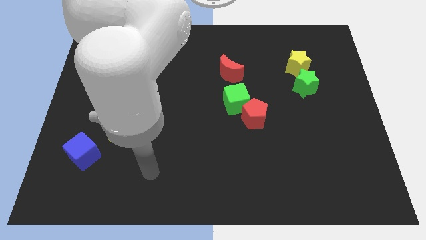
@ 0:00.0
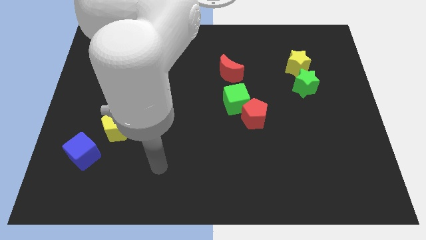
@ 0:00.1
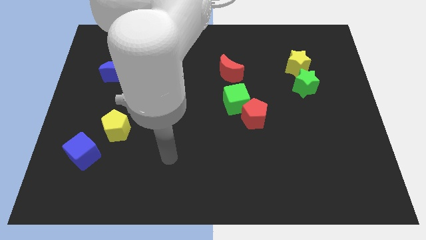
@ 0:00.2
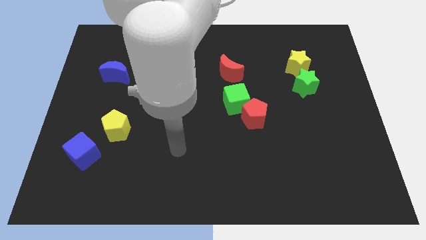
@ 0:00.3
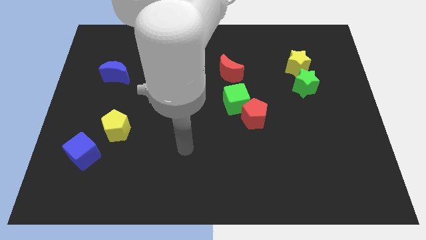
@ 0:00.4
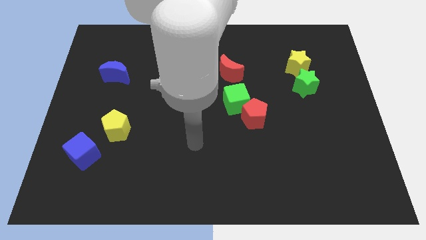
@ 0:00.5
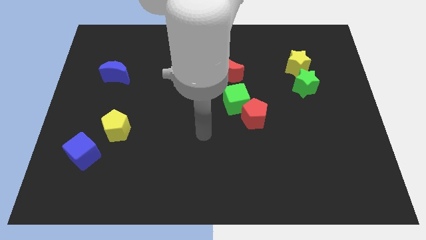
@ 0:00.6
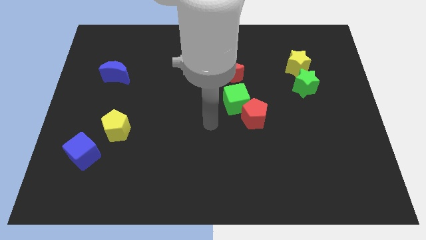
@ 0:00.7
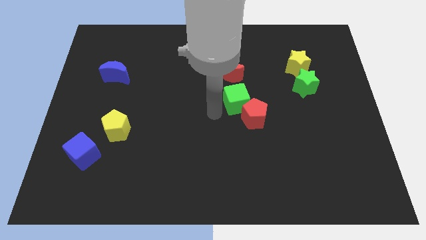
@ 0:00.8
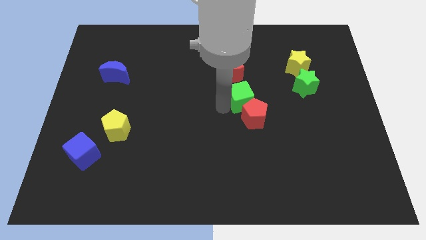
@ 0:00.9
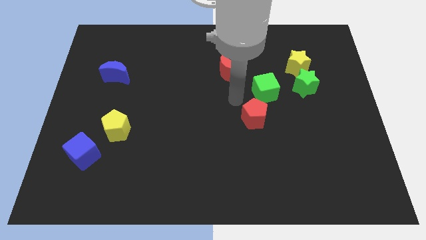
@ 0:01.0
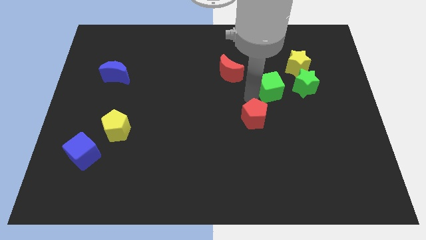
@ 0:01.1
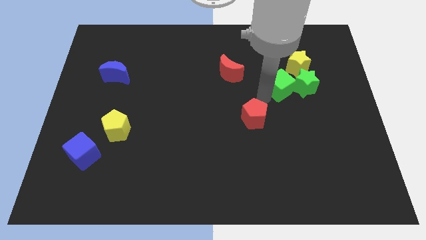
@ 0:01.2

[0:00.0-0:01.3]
separate the red pentagon from the green cube

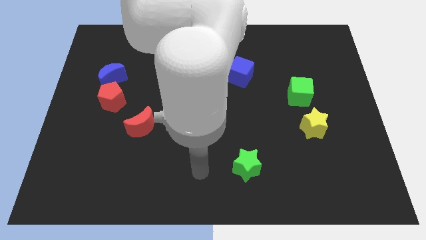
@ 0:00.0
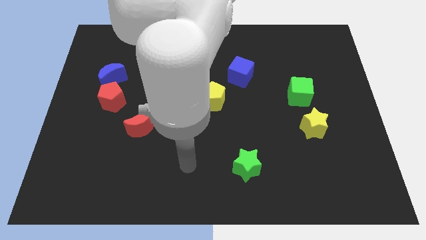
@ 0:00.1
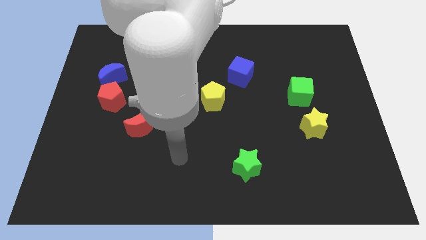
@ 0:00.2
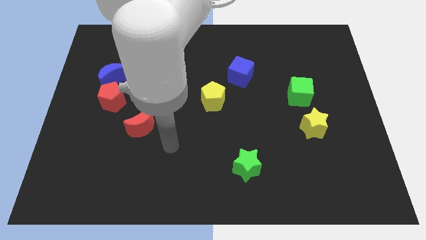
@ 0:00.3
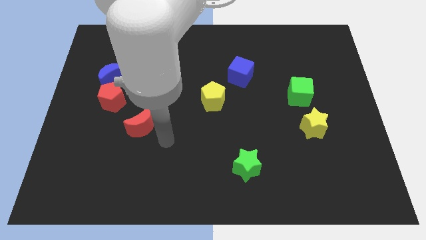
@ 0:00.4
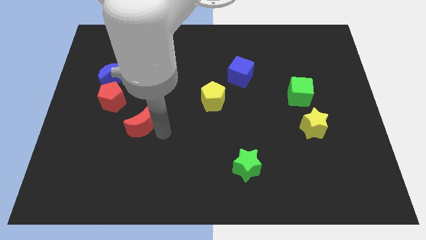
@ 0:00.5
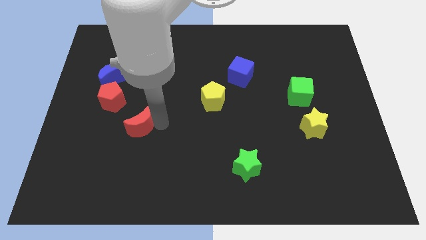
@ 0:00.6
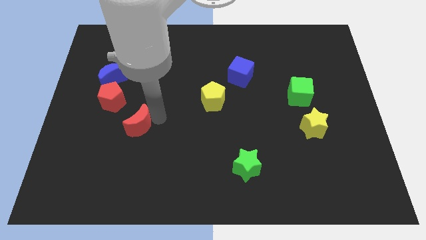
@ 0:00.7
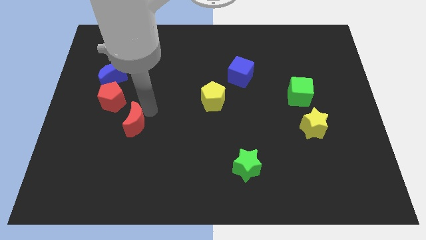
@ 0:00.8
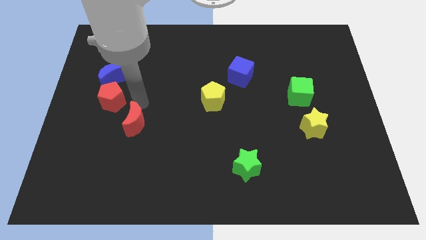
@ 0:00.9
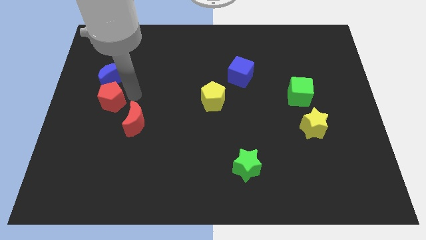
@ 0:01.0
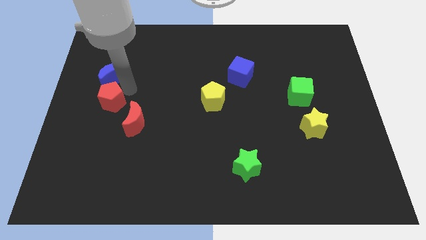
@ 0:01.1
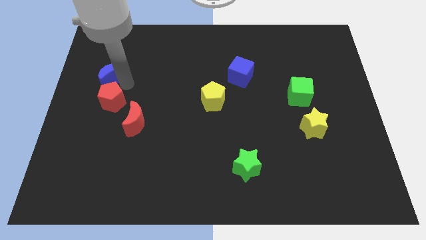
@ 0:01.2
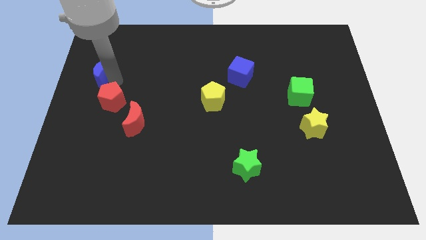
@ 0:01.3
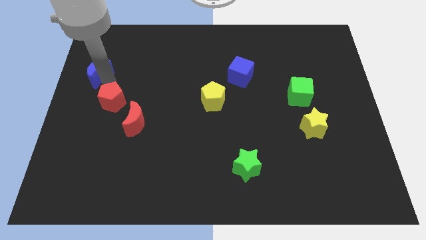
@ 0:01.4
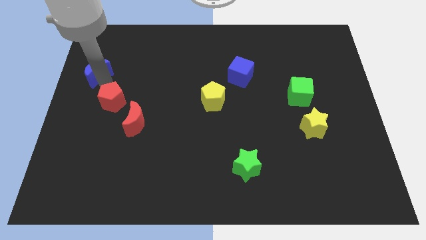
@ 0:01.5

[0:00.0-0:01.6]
separate the red pentagon from the blue moon

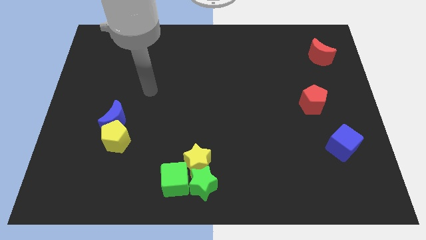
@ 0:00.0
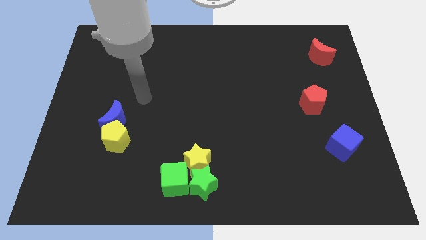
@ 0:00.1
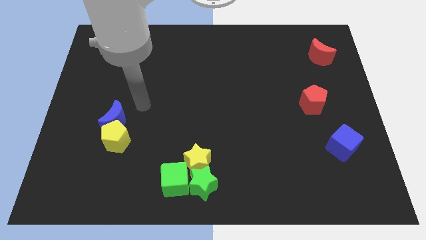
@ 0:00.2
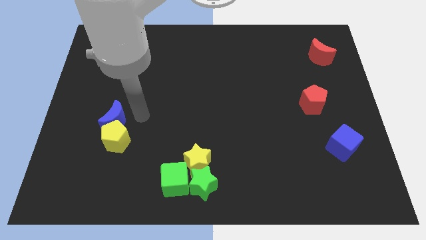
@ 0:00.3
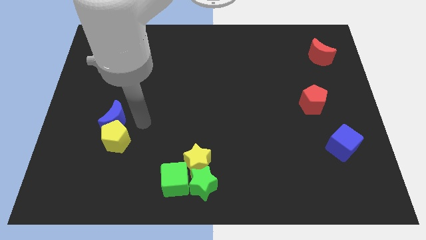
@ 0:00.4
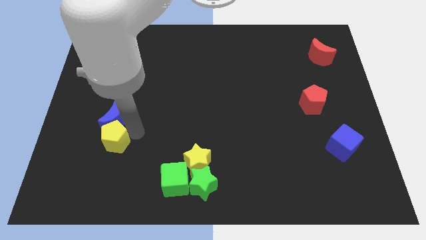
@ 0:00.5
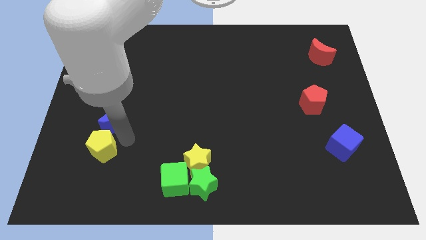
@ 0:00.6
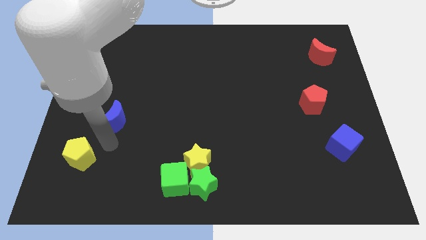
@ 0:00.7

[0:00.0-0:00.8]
separate the blue moon from the yellow pentagon

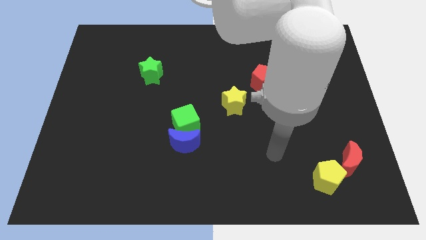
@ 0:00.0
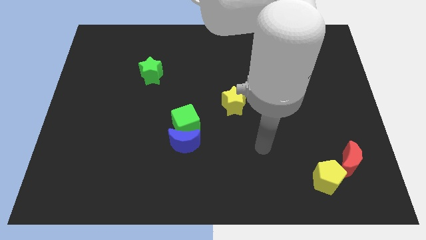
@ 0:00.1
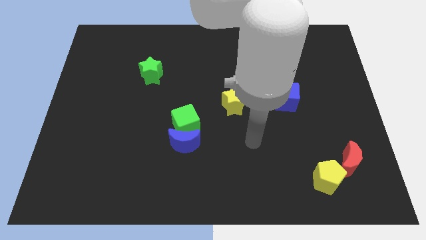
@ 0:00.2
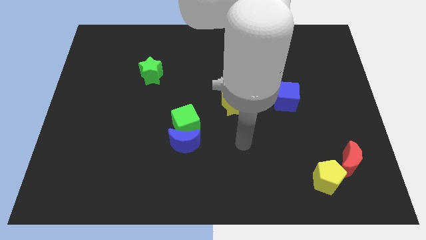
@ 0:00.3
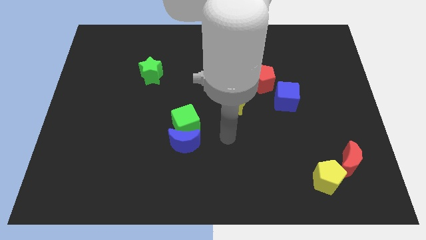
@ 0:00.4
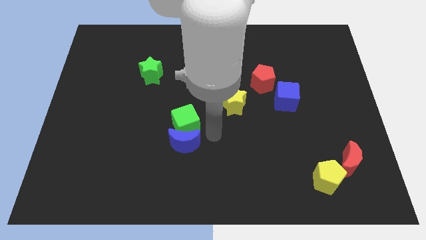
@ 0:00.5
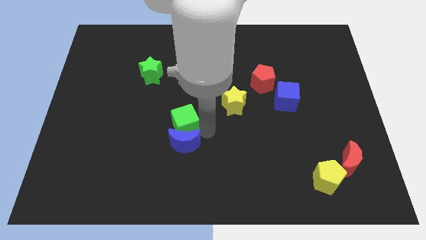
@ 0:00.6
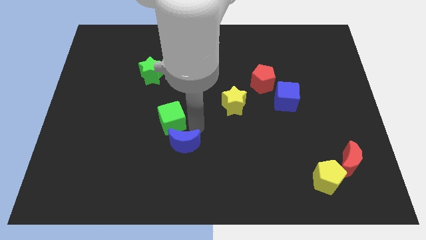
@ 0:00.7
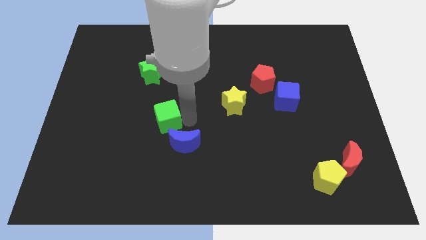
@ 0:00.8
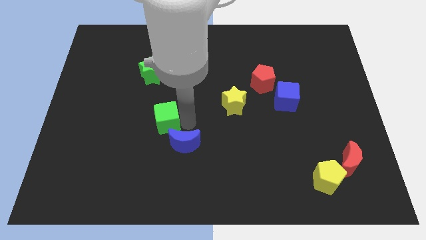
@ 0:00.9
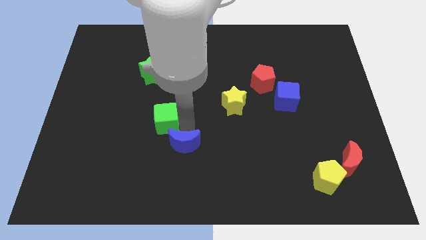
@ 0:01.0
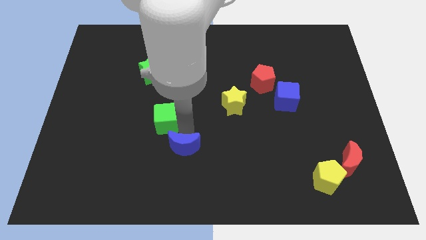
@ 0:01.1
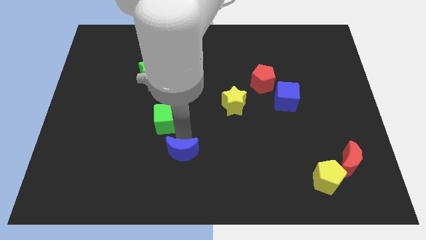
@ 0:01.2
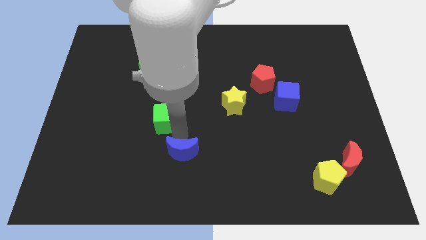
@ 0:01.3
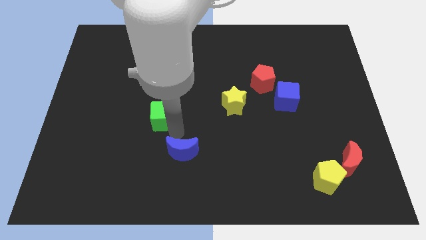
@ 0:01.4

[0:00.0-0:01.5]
separate the blue moon from the green cube

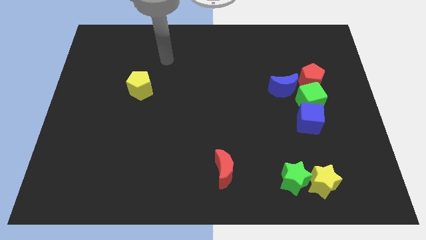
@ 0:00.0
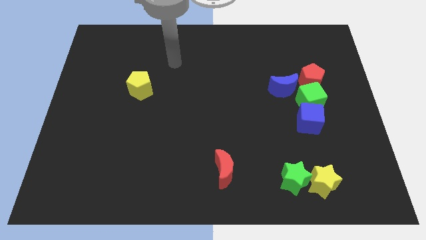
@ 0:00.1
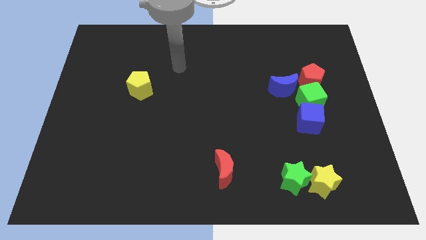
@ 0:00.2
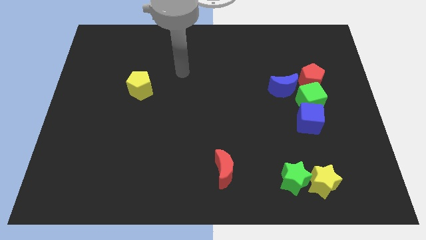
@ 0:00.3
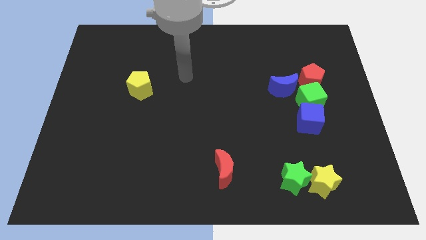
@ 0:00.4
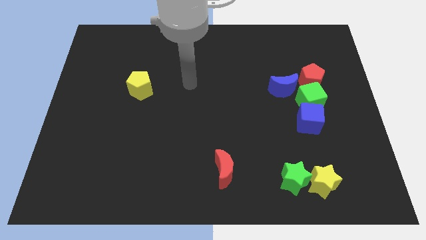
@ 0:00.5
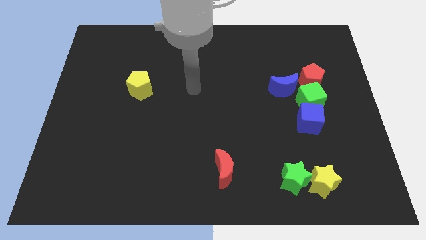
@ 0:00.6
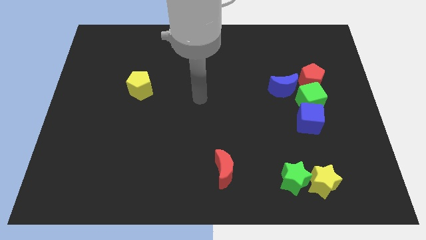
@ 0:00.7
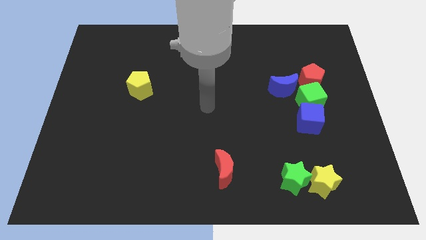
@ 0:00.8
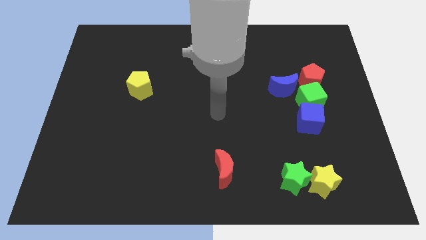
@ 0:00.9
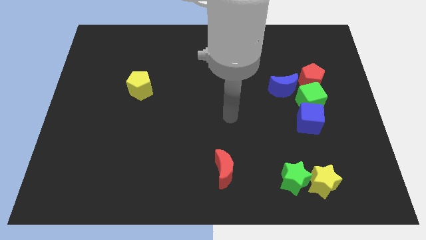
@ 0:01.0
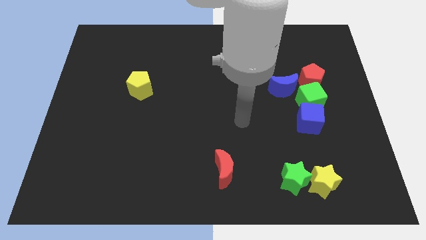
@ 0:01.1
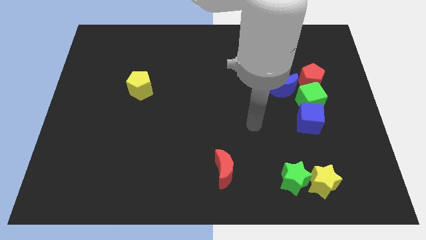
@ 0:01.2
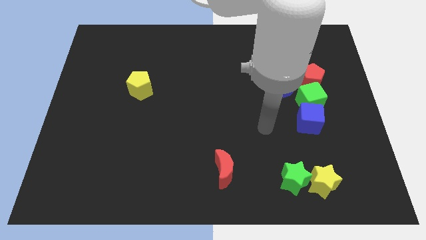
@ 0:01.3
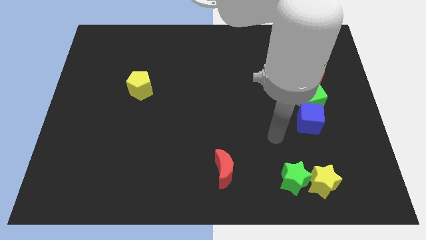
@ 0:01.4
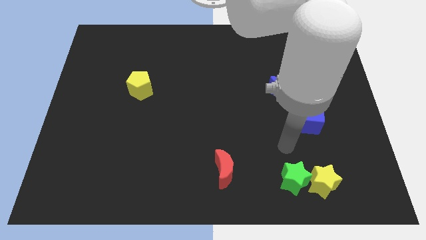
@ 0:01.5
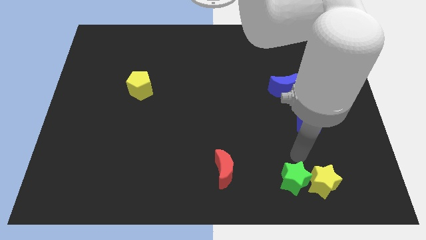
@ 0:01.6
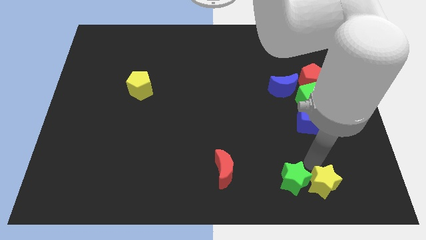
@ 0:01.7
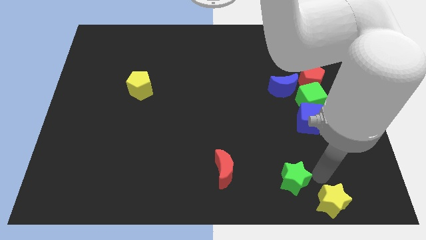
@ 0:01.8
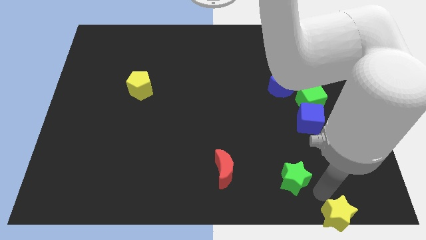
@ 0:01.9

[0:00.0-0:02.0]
separate the green star from the yellow star

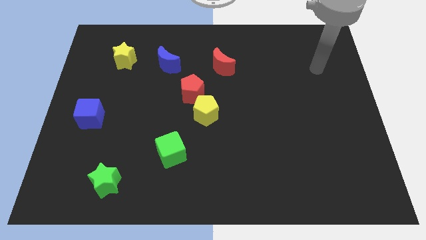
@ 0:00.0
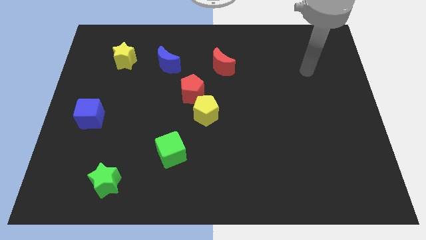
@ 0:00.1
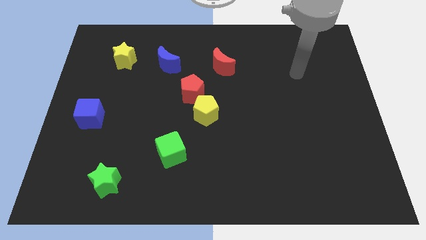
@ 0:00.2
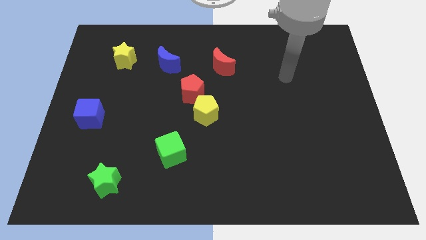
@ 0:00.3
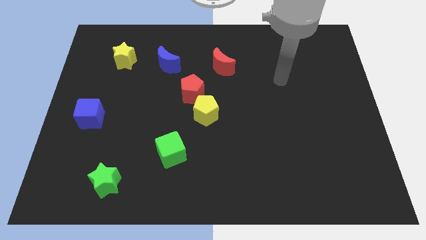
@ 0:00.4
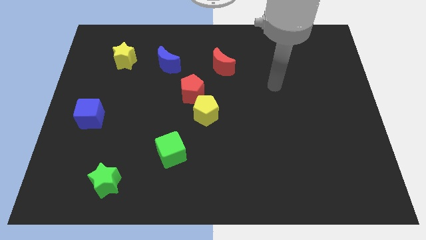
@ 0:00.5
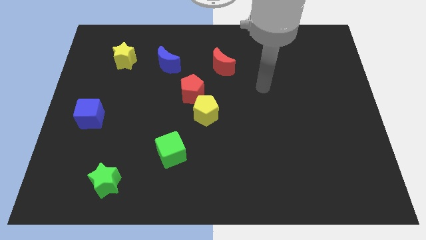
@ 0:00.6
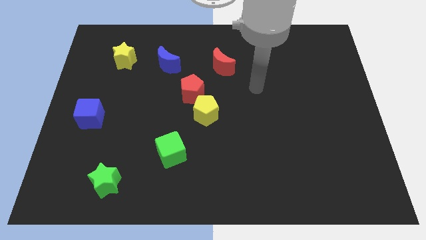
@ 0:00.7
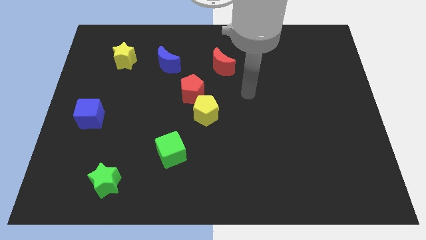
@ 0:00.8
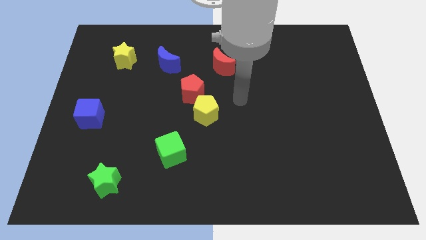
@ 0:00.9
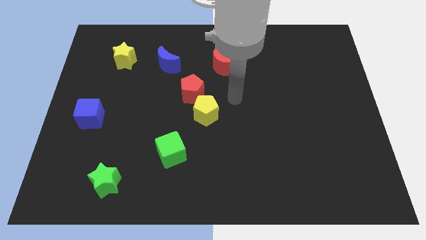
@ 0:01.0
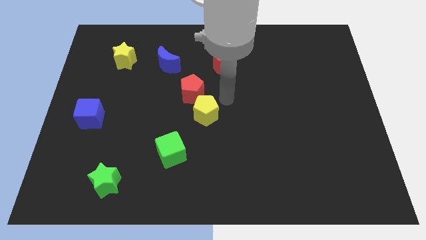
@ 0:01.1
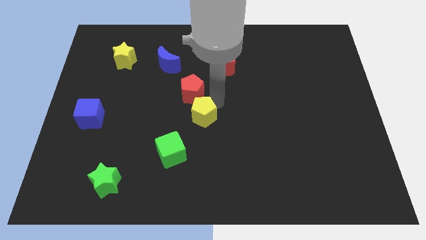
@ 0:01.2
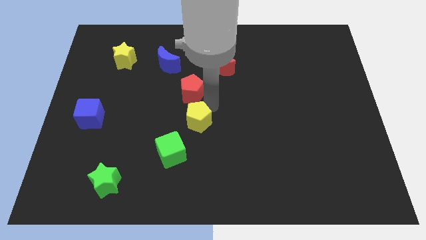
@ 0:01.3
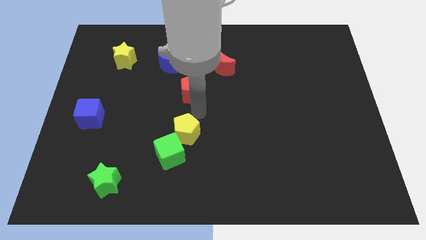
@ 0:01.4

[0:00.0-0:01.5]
move the red pentagon away from the yellow pentagon

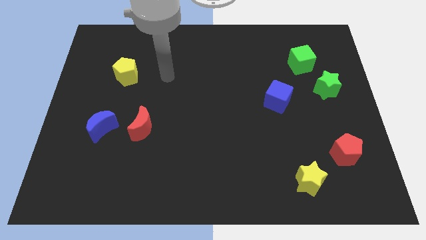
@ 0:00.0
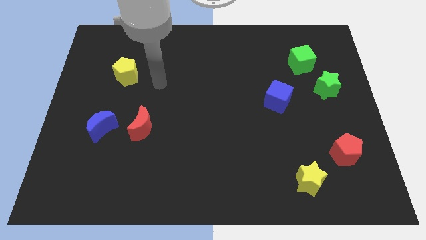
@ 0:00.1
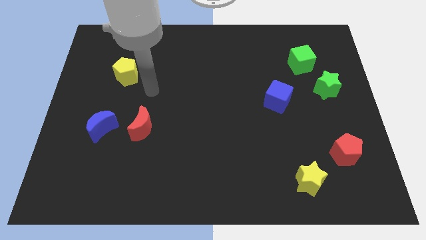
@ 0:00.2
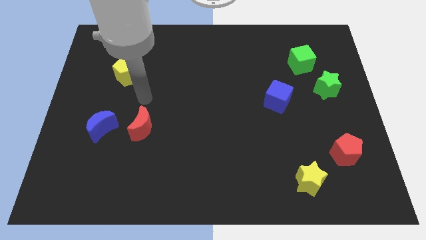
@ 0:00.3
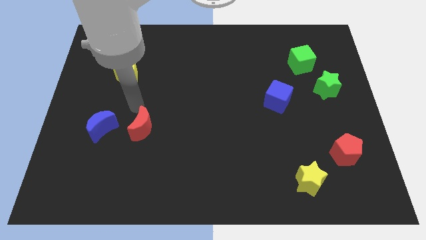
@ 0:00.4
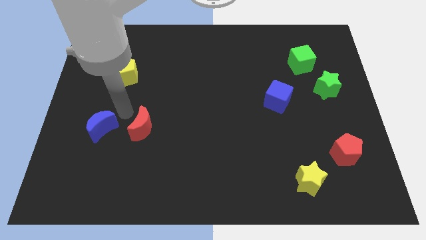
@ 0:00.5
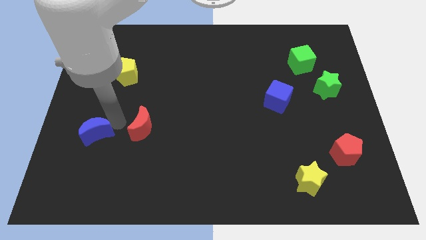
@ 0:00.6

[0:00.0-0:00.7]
move the red moon away from the blue moon
